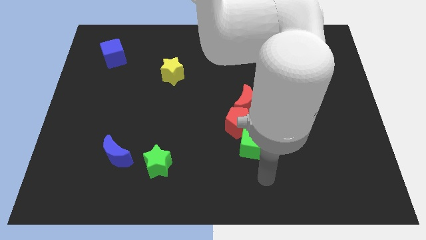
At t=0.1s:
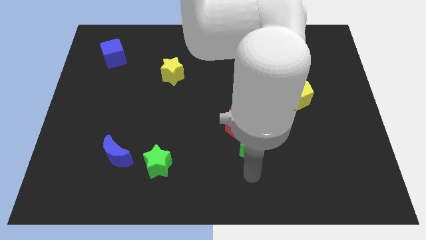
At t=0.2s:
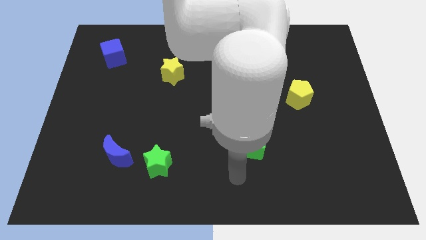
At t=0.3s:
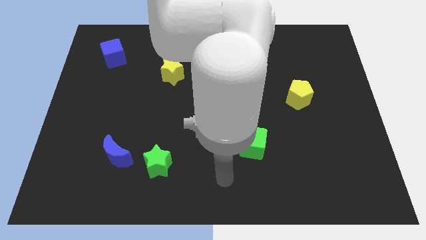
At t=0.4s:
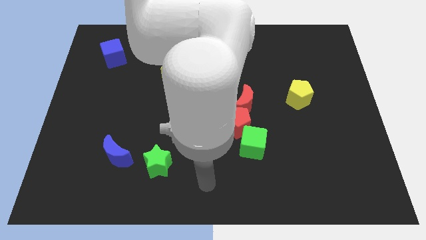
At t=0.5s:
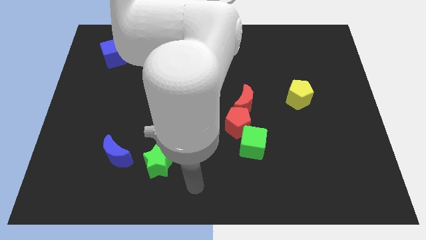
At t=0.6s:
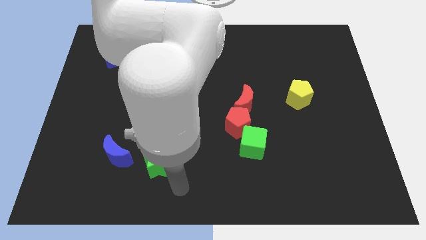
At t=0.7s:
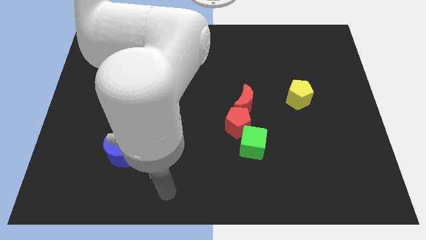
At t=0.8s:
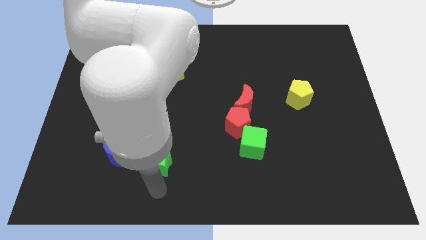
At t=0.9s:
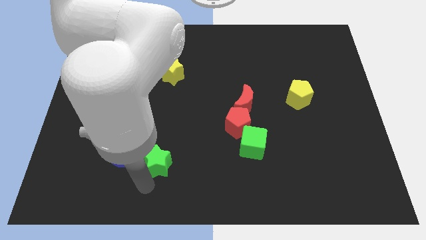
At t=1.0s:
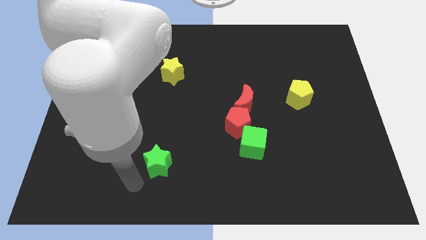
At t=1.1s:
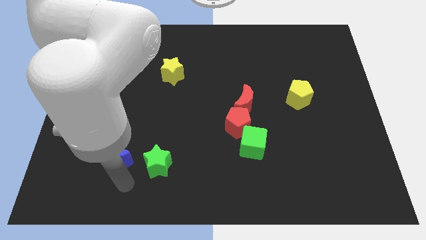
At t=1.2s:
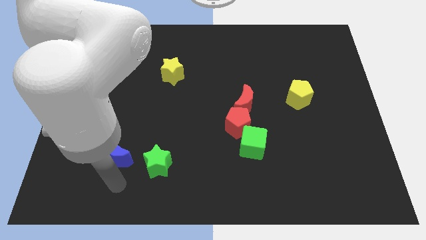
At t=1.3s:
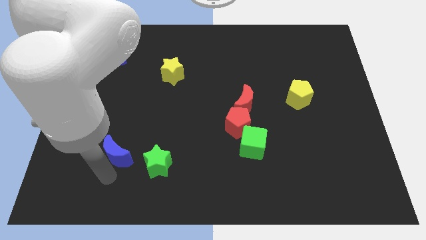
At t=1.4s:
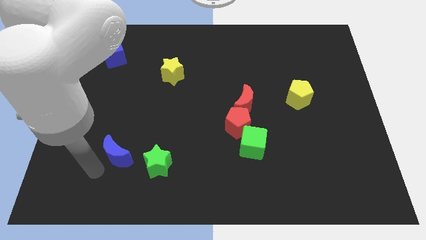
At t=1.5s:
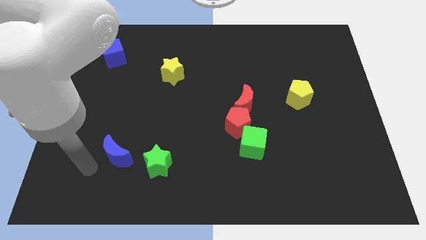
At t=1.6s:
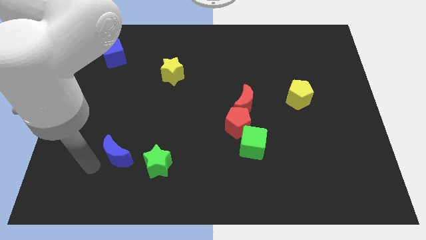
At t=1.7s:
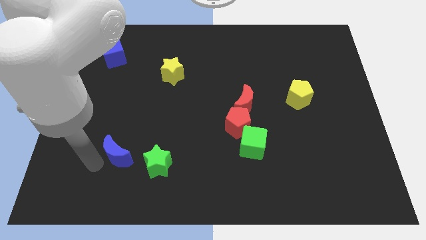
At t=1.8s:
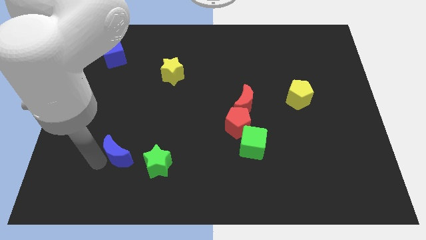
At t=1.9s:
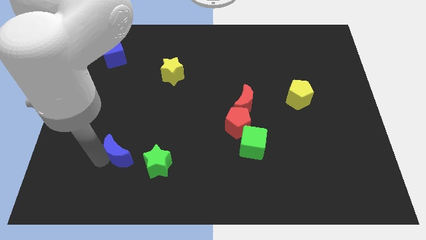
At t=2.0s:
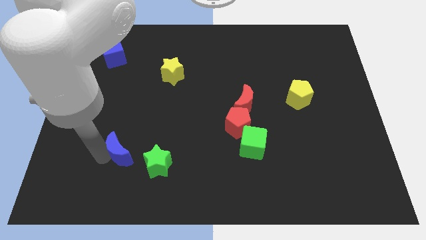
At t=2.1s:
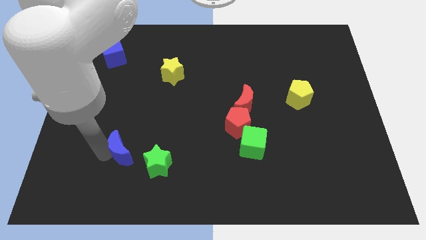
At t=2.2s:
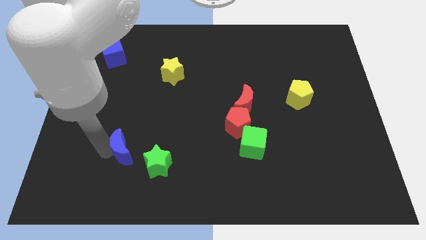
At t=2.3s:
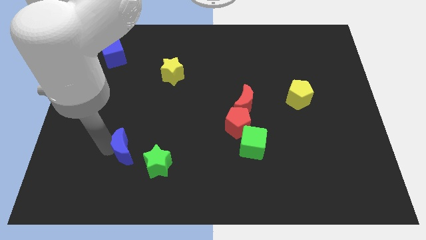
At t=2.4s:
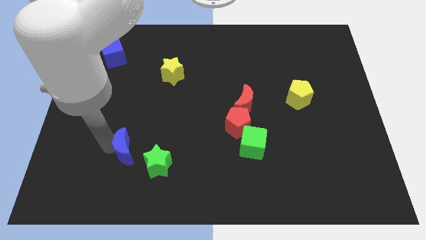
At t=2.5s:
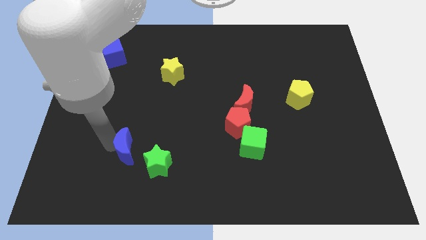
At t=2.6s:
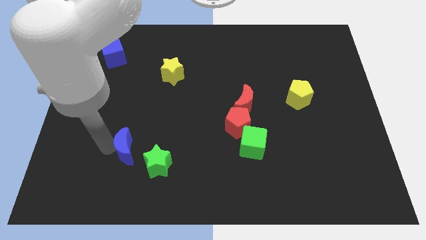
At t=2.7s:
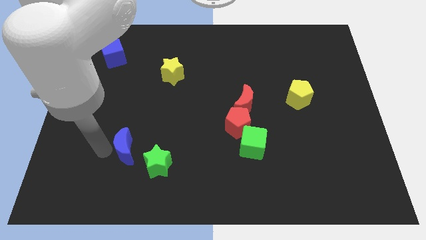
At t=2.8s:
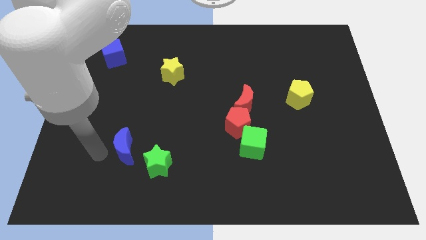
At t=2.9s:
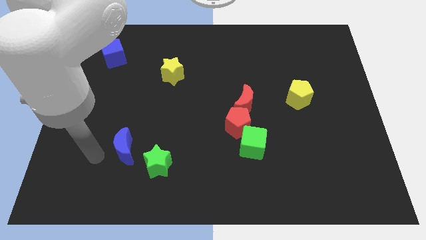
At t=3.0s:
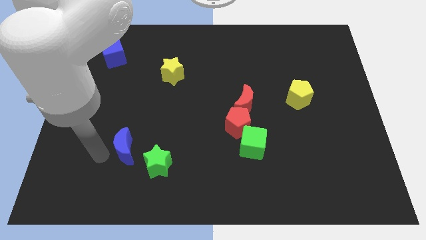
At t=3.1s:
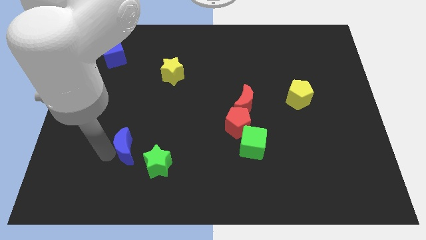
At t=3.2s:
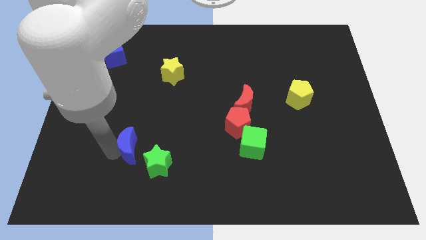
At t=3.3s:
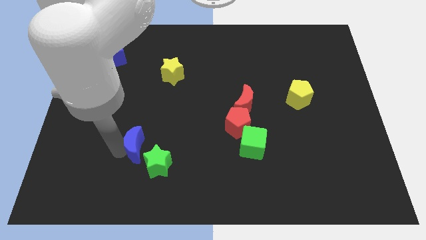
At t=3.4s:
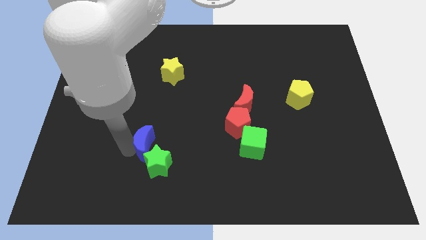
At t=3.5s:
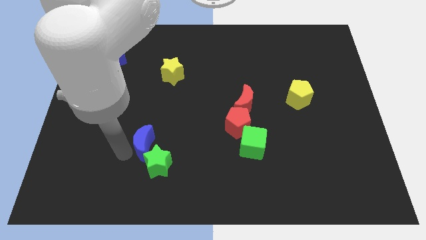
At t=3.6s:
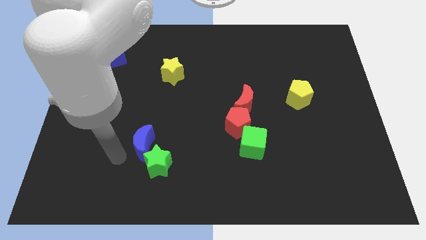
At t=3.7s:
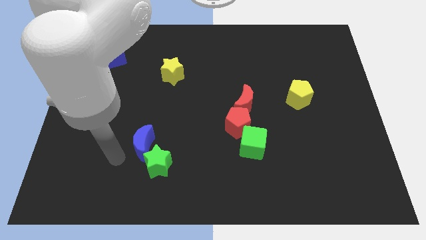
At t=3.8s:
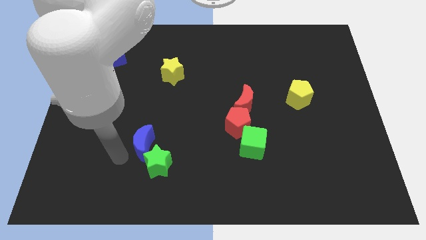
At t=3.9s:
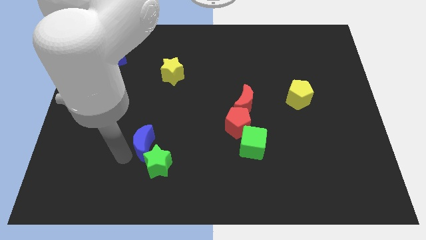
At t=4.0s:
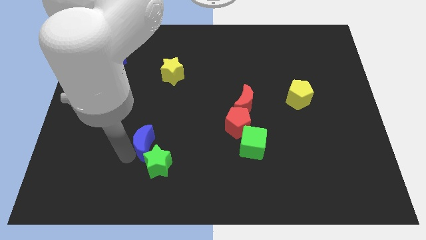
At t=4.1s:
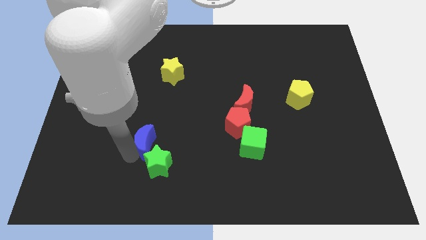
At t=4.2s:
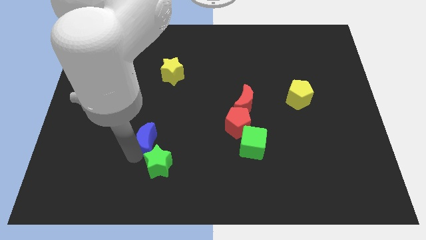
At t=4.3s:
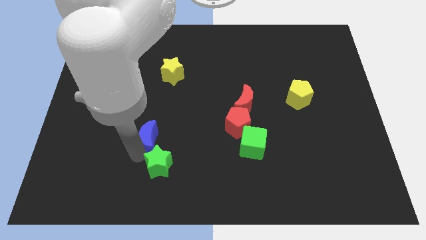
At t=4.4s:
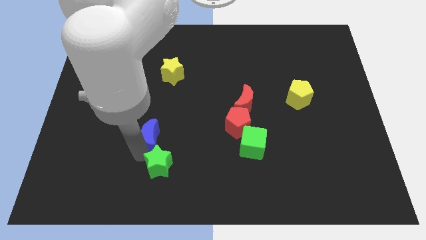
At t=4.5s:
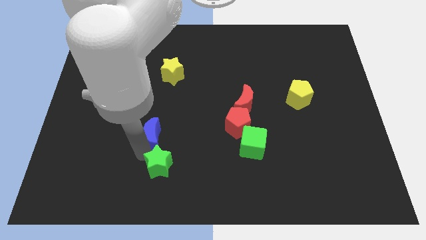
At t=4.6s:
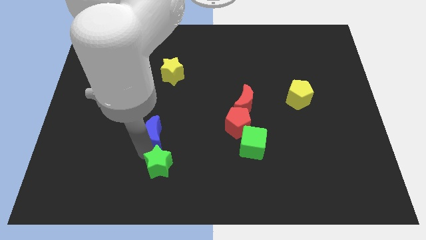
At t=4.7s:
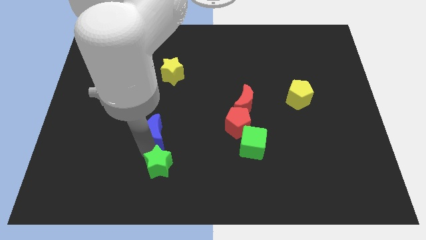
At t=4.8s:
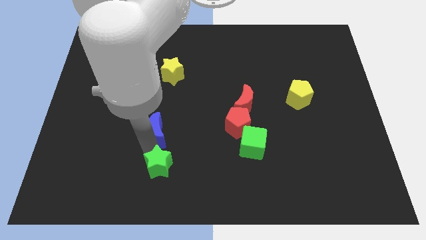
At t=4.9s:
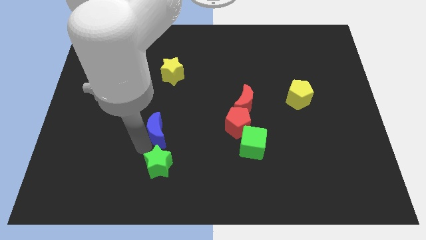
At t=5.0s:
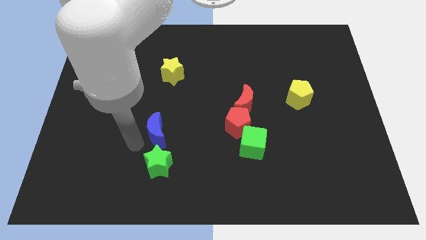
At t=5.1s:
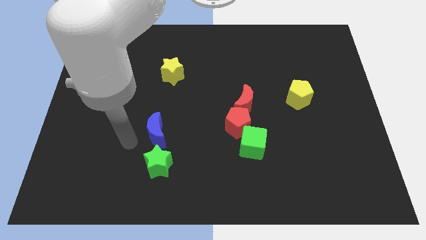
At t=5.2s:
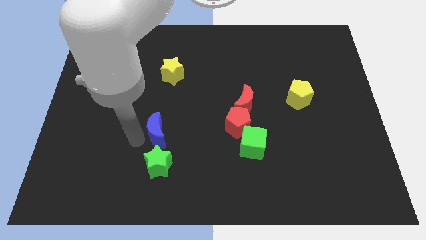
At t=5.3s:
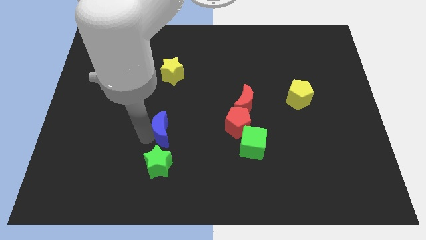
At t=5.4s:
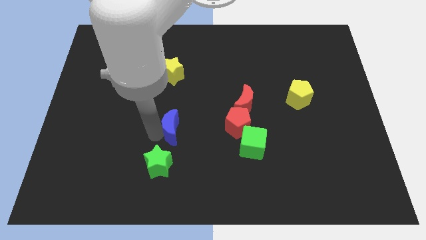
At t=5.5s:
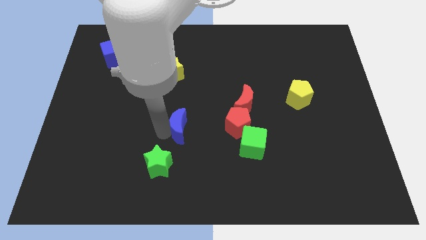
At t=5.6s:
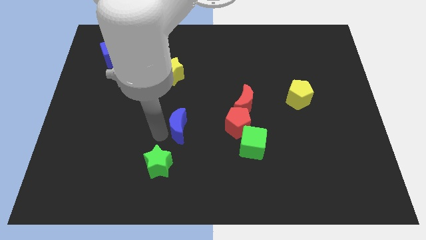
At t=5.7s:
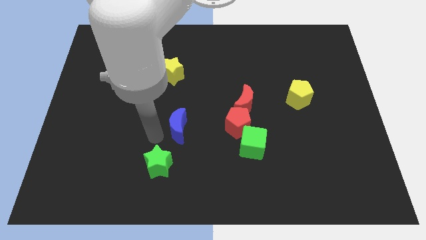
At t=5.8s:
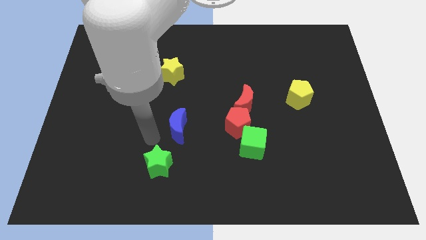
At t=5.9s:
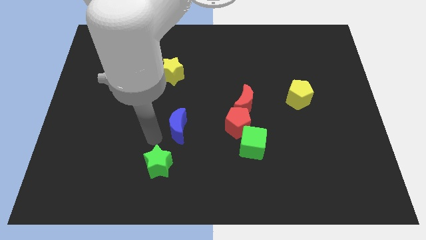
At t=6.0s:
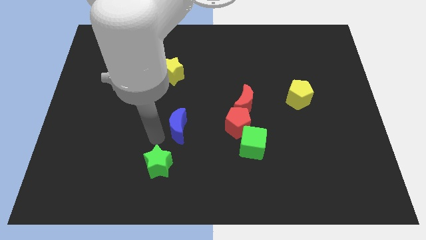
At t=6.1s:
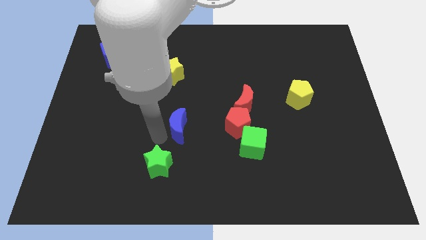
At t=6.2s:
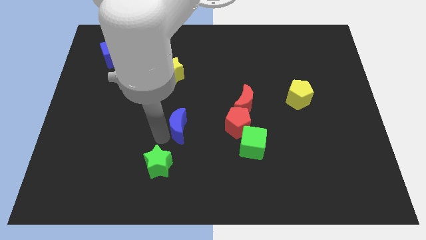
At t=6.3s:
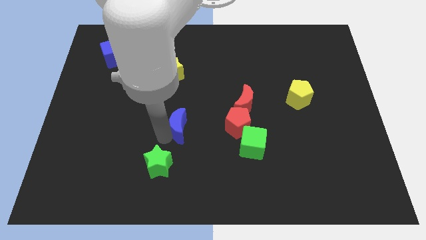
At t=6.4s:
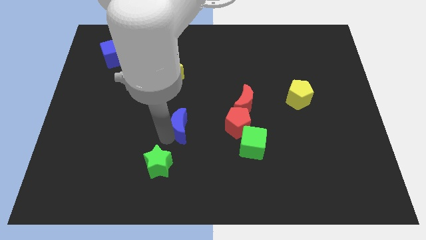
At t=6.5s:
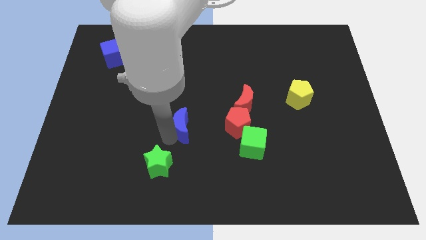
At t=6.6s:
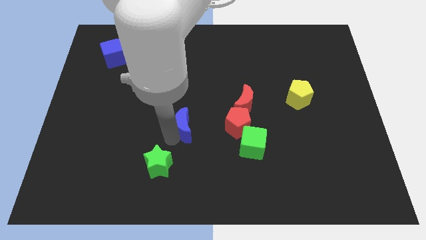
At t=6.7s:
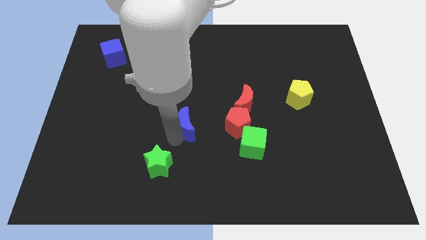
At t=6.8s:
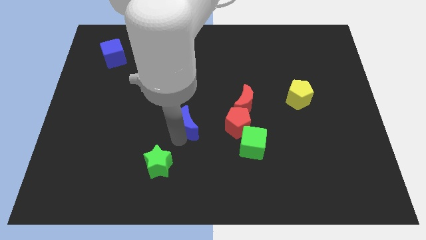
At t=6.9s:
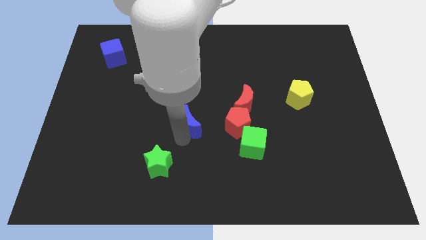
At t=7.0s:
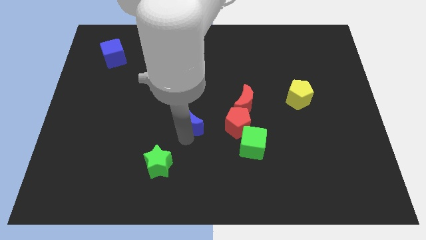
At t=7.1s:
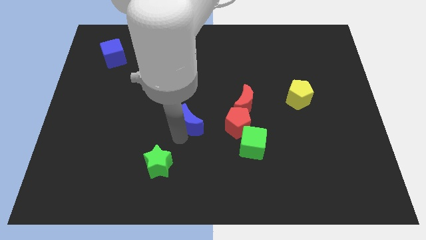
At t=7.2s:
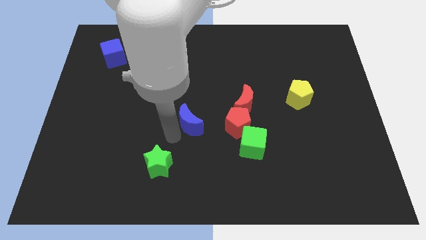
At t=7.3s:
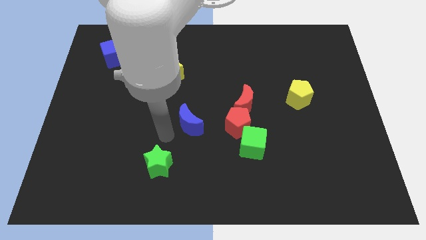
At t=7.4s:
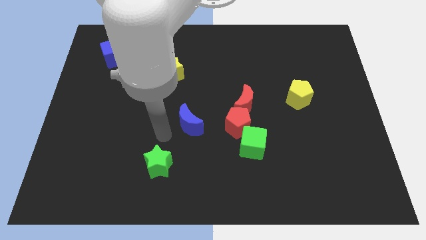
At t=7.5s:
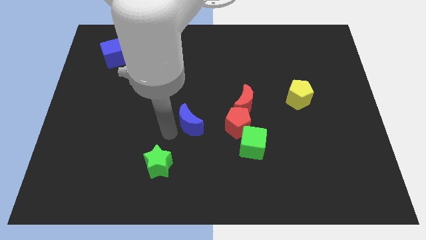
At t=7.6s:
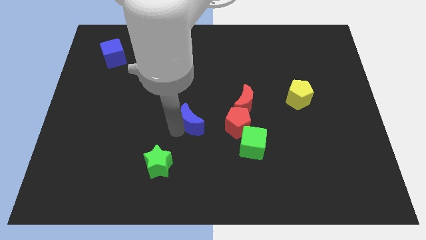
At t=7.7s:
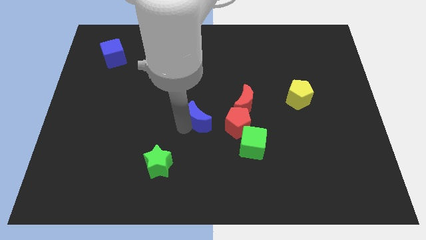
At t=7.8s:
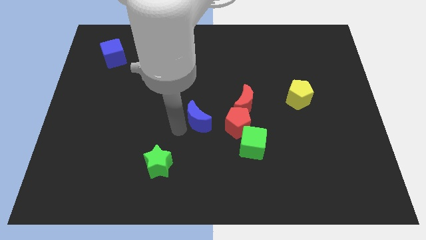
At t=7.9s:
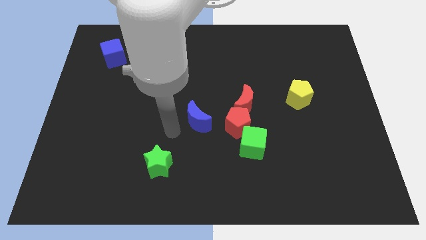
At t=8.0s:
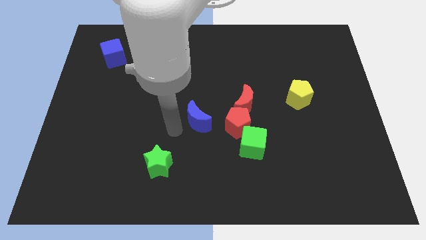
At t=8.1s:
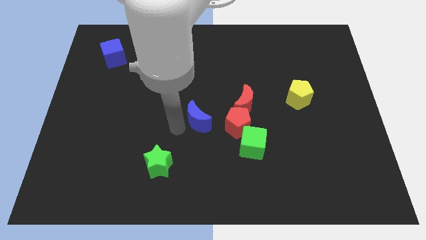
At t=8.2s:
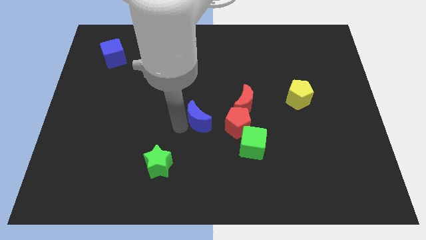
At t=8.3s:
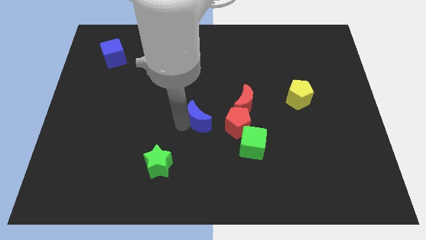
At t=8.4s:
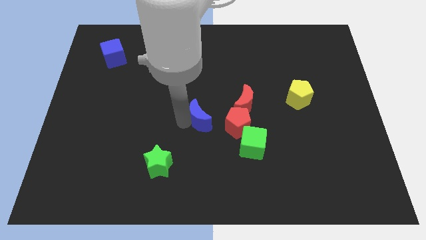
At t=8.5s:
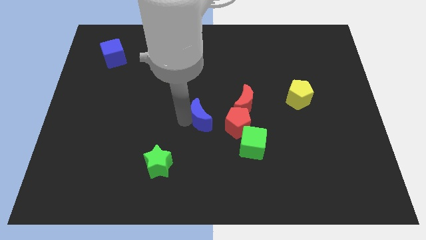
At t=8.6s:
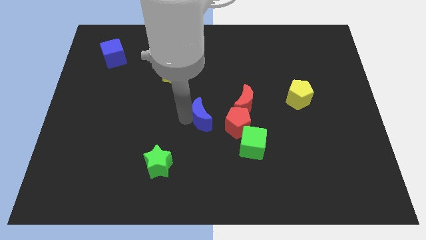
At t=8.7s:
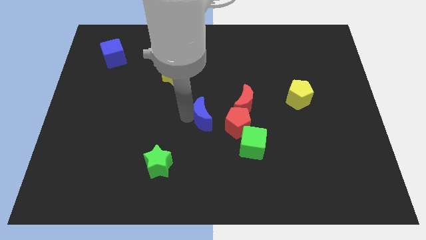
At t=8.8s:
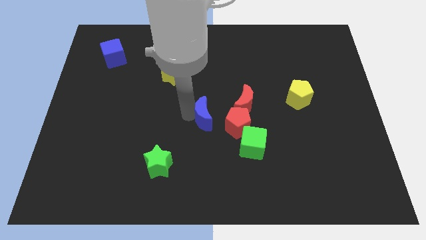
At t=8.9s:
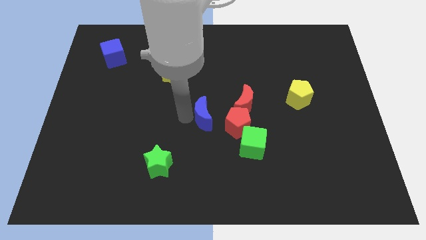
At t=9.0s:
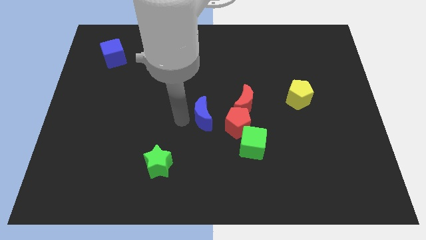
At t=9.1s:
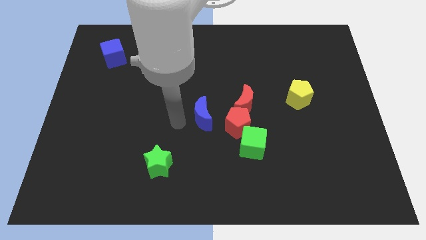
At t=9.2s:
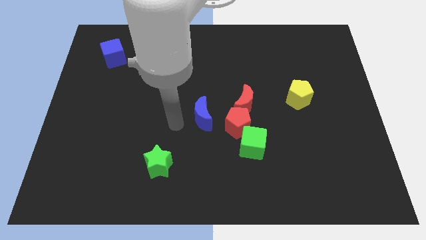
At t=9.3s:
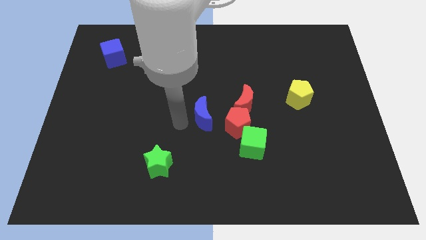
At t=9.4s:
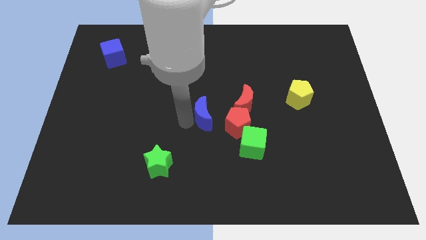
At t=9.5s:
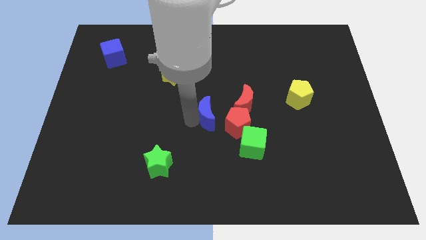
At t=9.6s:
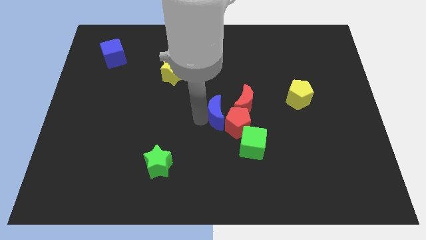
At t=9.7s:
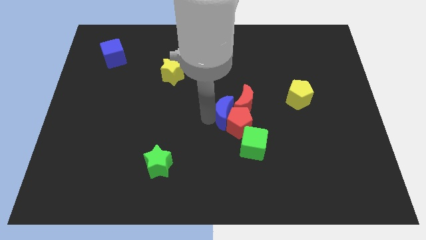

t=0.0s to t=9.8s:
put the blue moon towards the red moon
